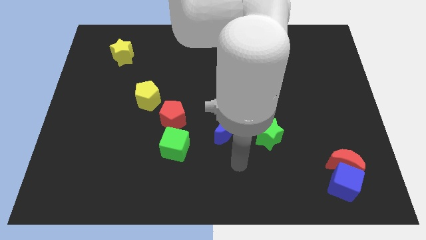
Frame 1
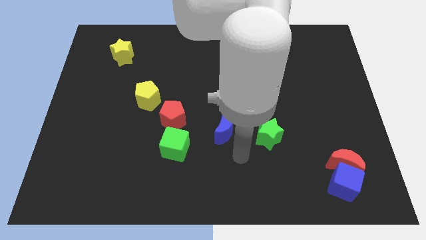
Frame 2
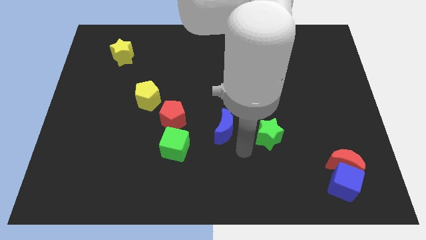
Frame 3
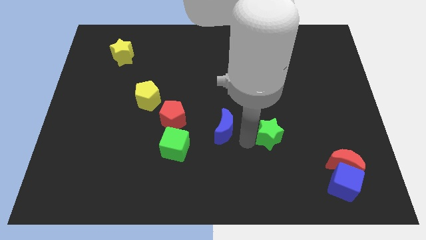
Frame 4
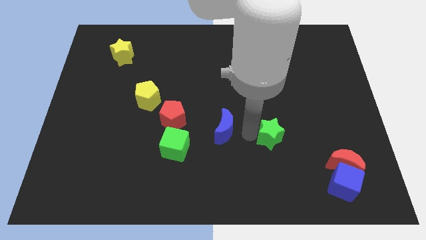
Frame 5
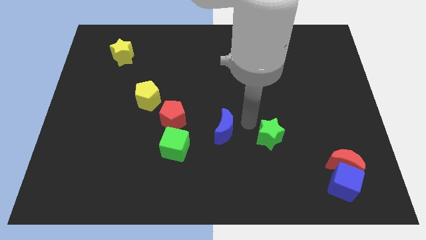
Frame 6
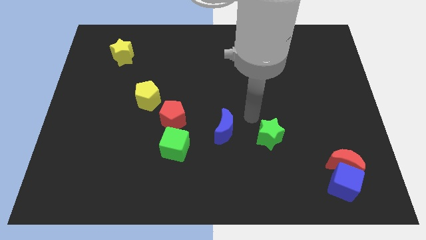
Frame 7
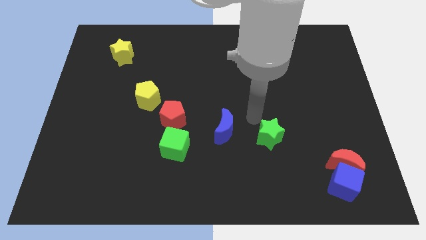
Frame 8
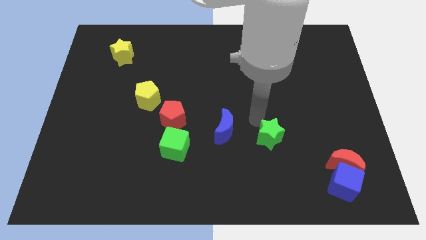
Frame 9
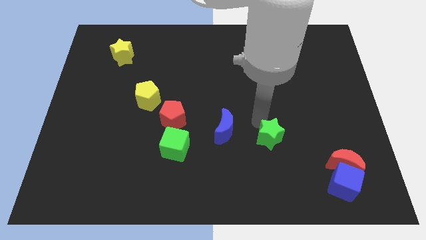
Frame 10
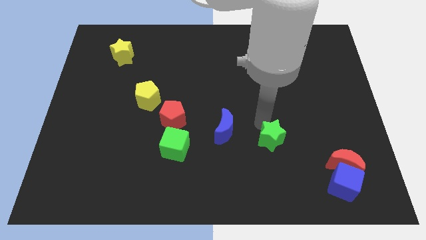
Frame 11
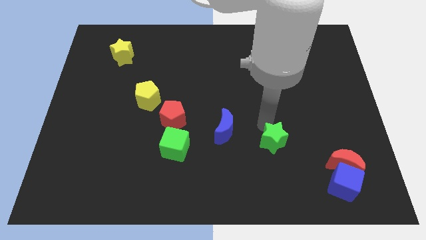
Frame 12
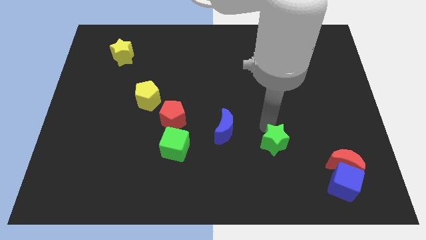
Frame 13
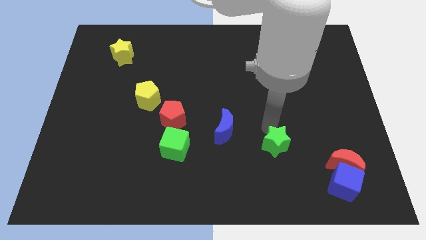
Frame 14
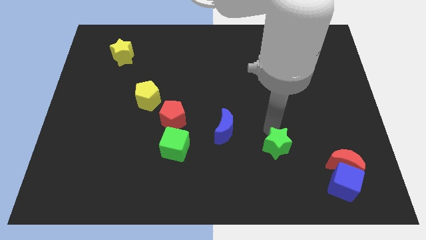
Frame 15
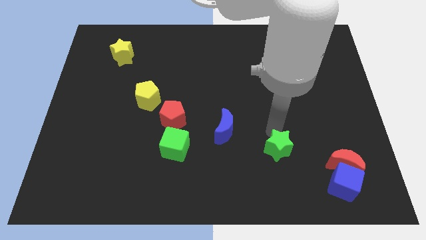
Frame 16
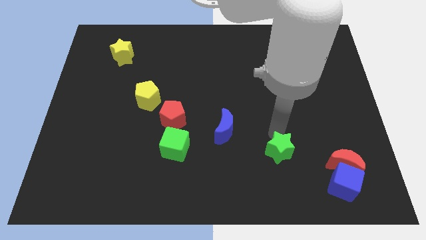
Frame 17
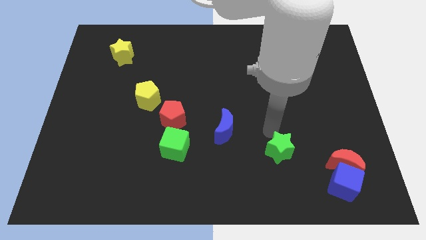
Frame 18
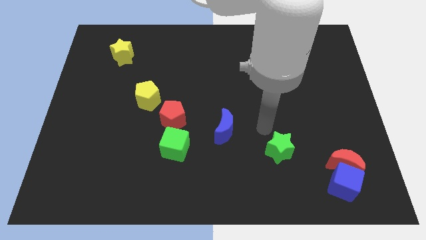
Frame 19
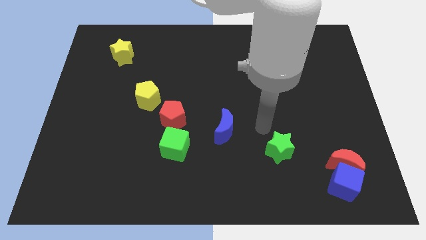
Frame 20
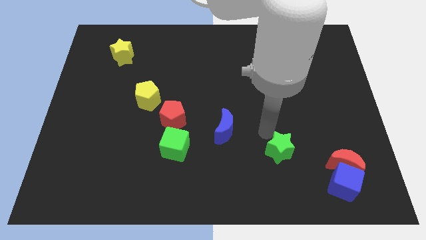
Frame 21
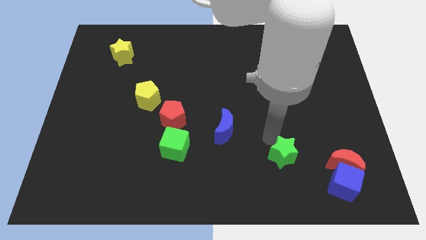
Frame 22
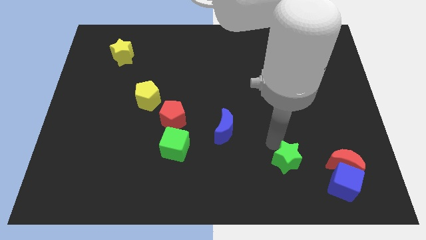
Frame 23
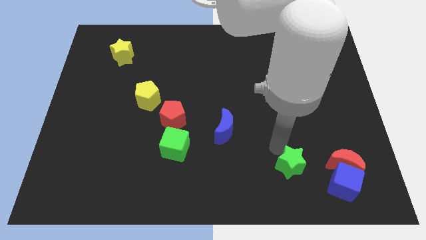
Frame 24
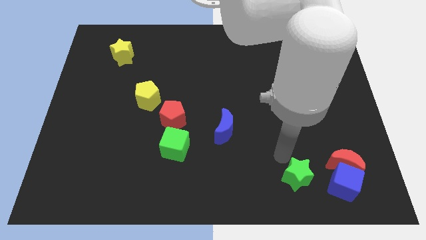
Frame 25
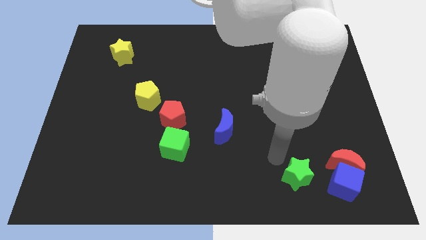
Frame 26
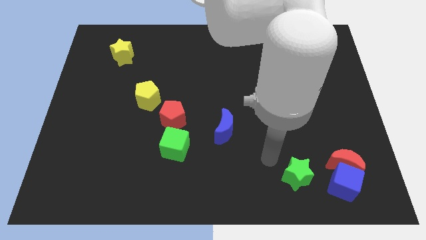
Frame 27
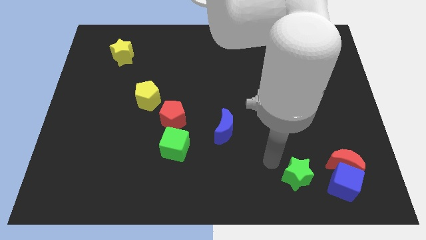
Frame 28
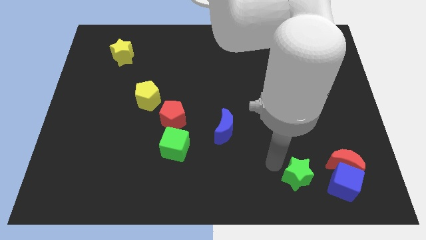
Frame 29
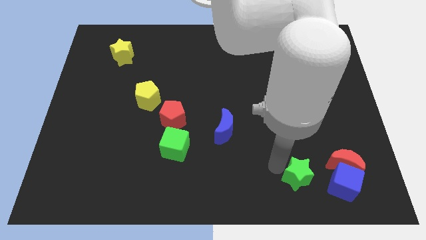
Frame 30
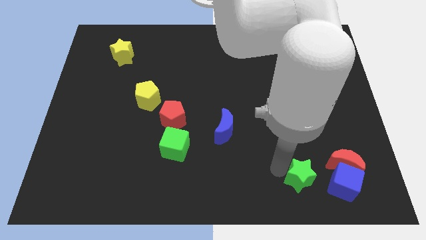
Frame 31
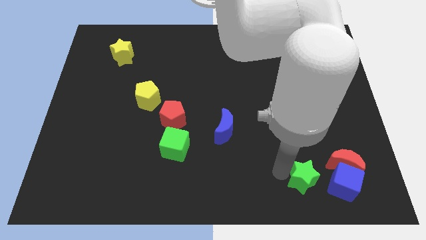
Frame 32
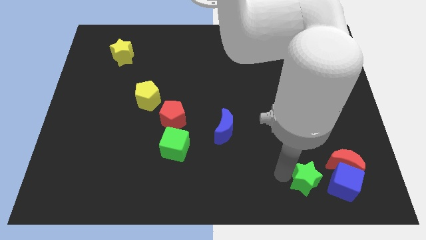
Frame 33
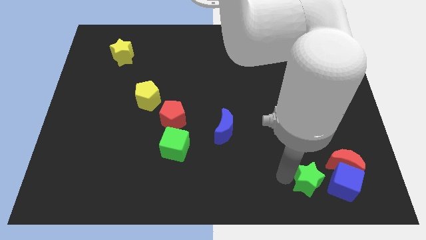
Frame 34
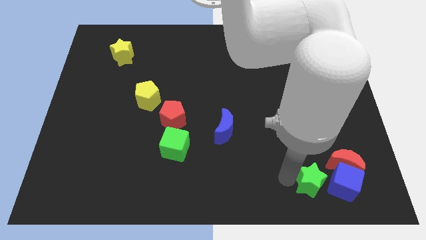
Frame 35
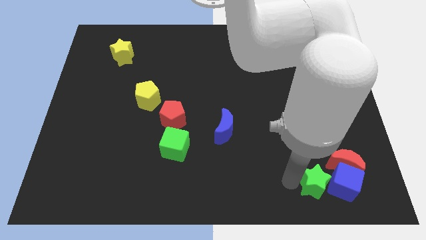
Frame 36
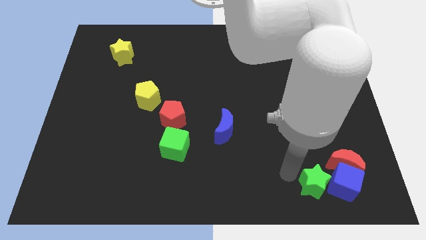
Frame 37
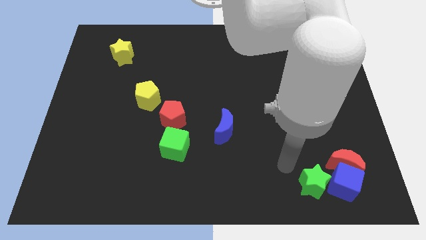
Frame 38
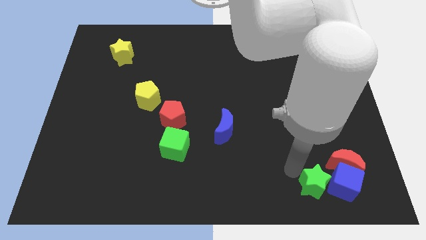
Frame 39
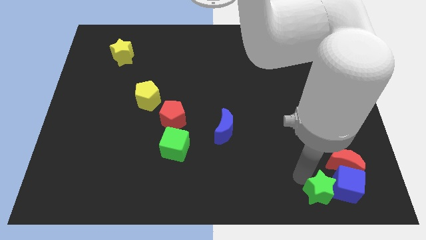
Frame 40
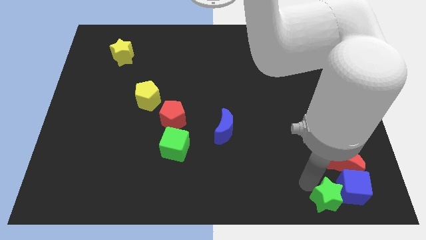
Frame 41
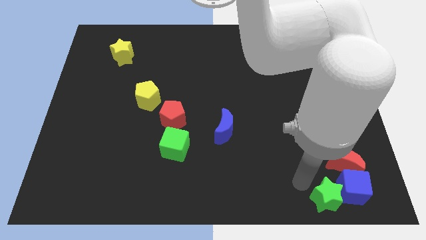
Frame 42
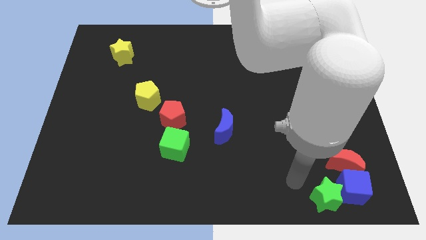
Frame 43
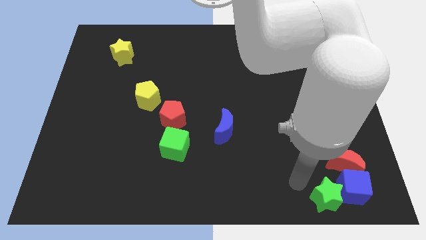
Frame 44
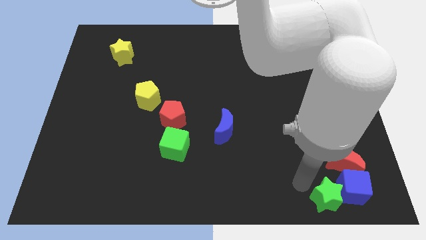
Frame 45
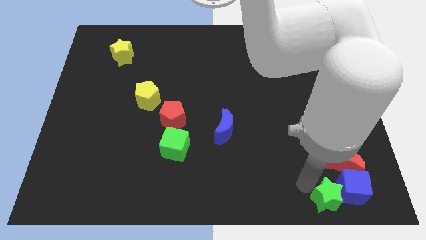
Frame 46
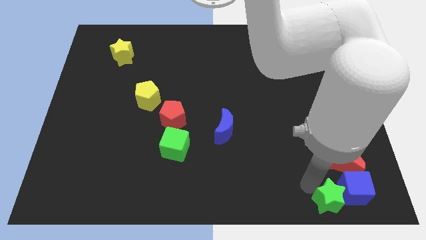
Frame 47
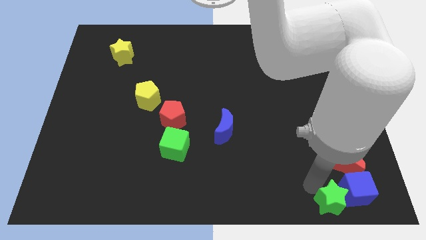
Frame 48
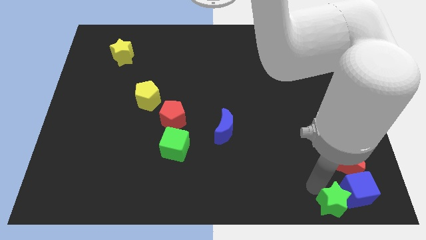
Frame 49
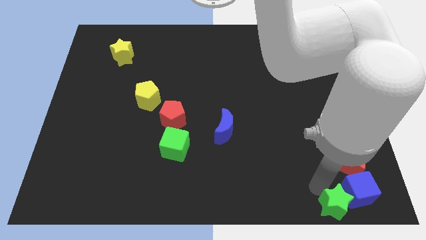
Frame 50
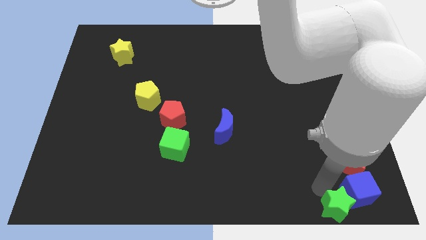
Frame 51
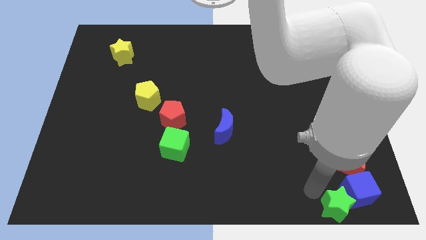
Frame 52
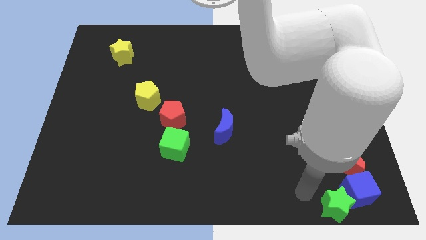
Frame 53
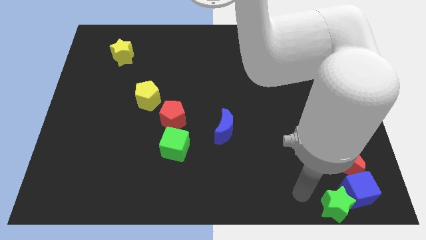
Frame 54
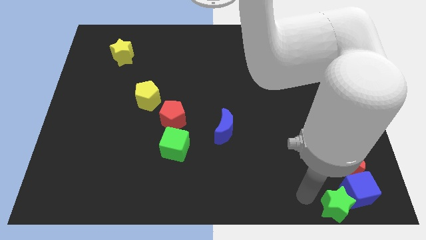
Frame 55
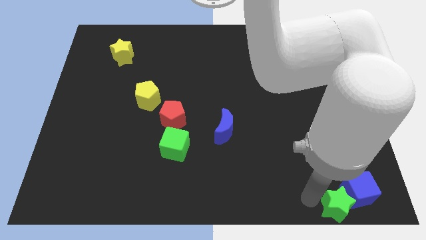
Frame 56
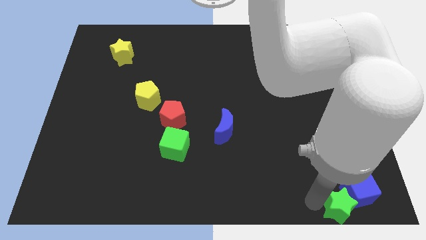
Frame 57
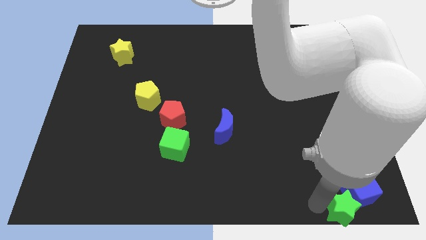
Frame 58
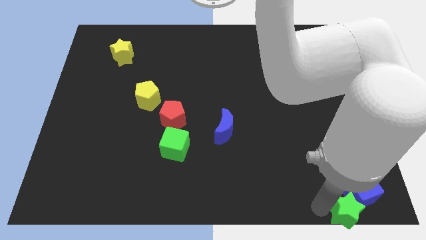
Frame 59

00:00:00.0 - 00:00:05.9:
move the green star to the lower right corner
